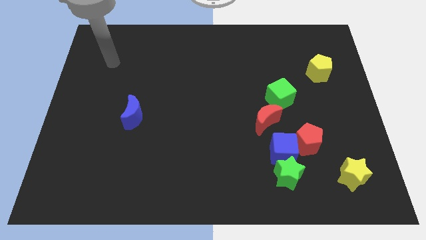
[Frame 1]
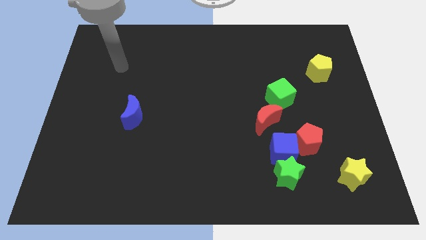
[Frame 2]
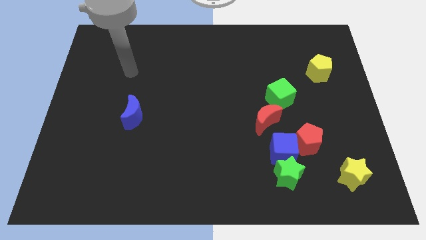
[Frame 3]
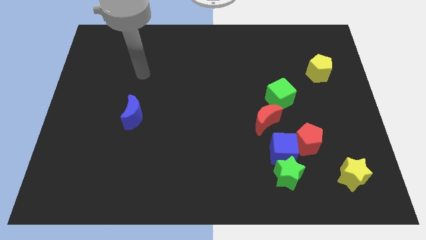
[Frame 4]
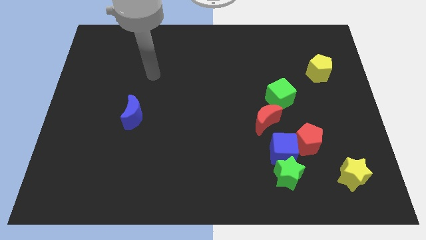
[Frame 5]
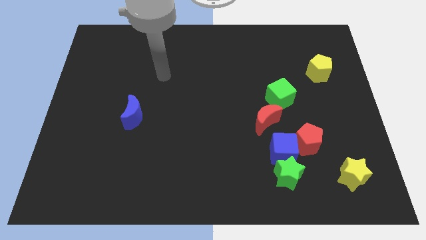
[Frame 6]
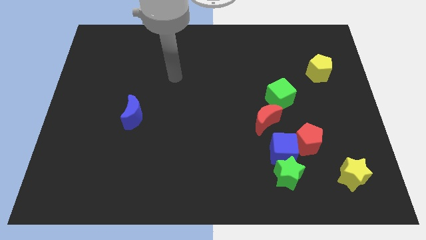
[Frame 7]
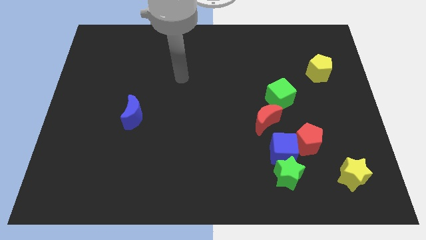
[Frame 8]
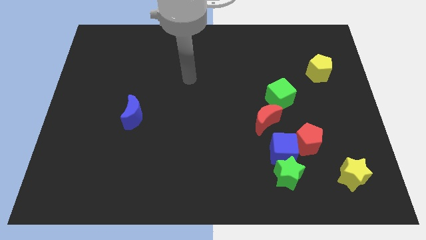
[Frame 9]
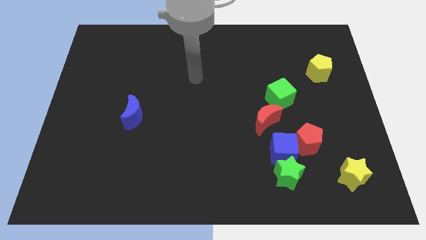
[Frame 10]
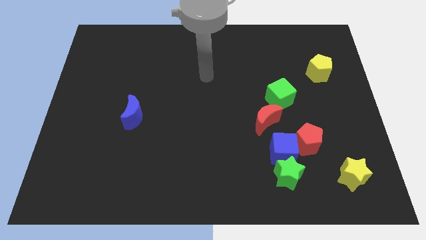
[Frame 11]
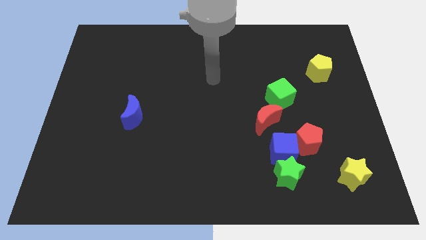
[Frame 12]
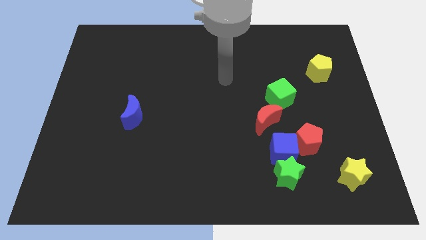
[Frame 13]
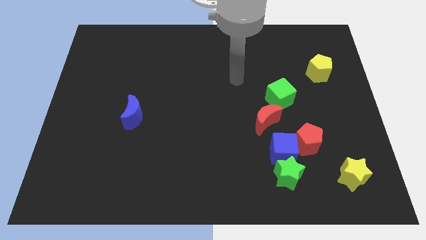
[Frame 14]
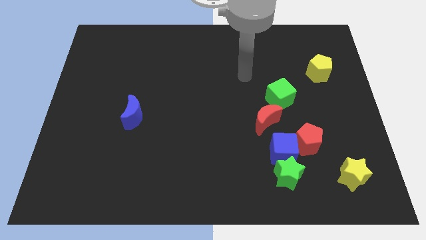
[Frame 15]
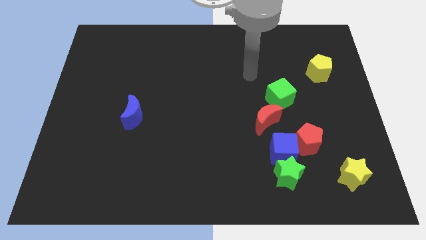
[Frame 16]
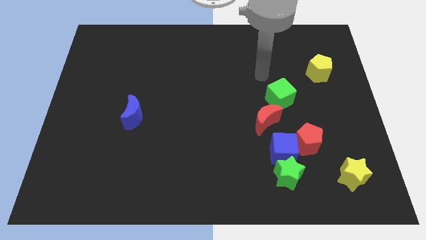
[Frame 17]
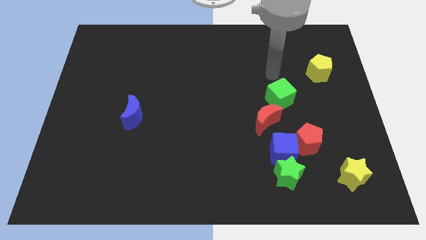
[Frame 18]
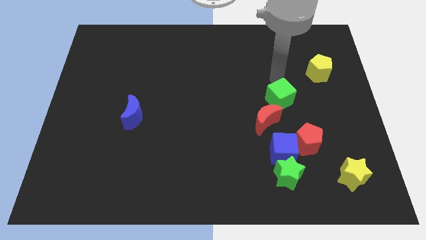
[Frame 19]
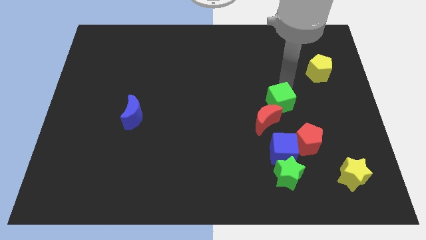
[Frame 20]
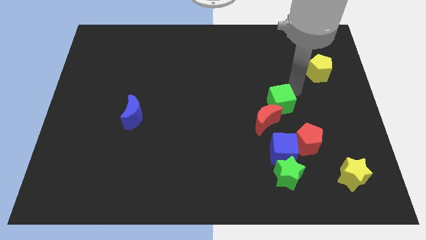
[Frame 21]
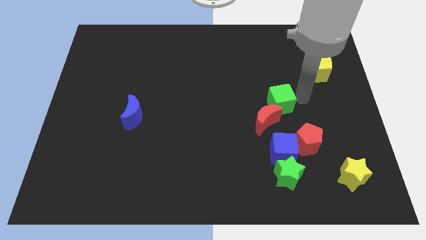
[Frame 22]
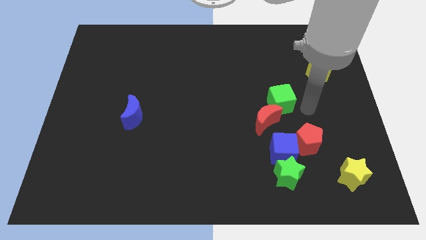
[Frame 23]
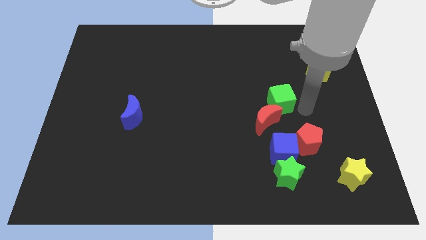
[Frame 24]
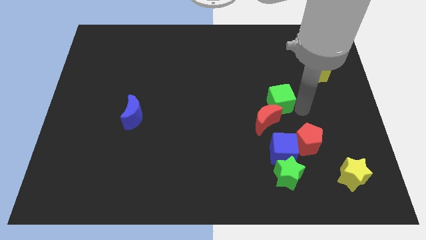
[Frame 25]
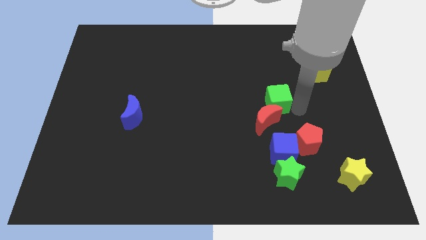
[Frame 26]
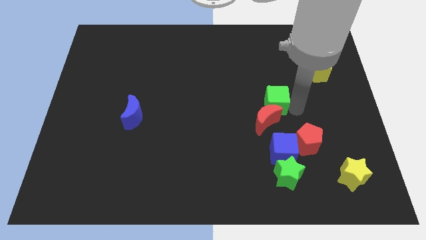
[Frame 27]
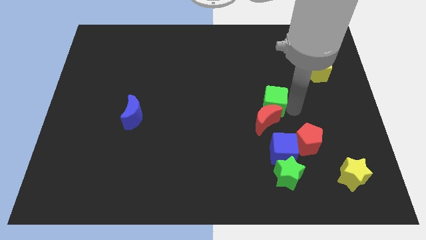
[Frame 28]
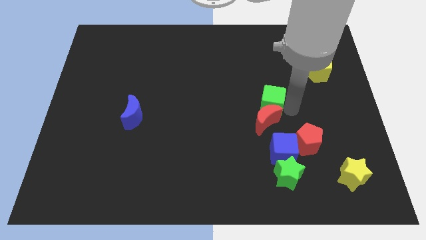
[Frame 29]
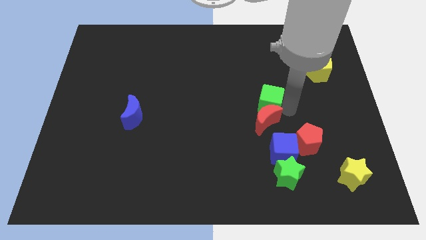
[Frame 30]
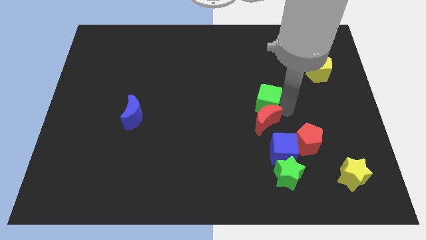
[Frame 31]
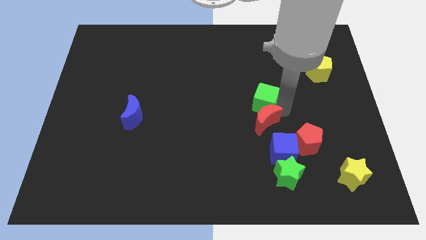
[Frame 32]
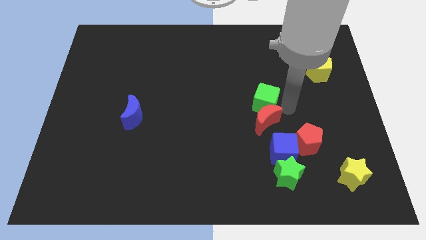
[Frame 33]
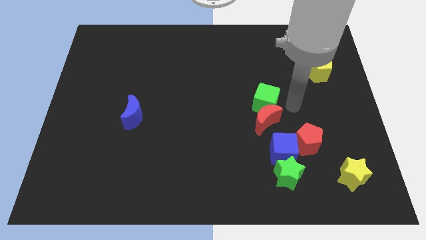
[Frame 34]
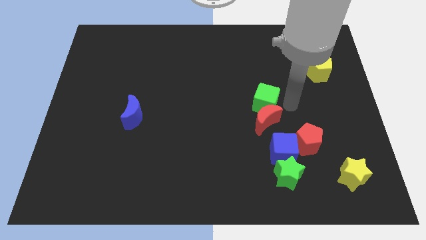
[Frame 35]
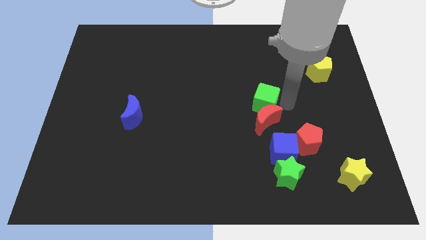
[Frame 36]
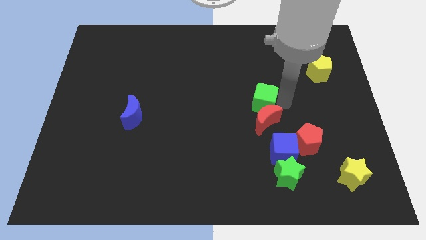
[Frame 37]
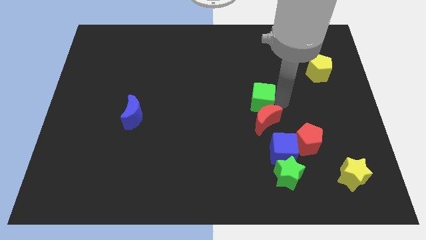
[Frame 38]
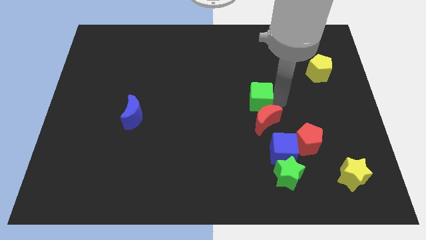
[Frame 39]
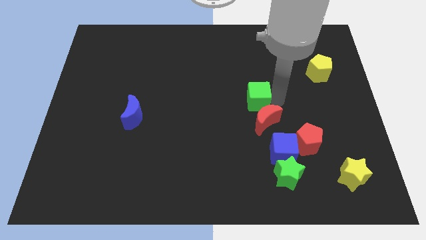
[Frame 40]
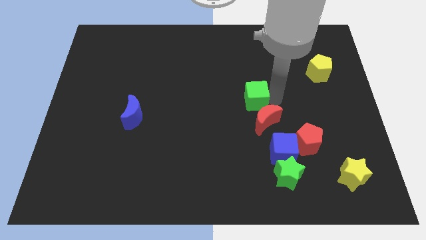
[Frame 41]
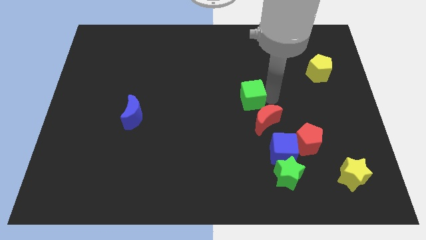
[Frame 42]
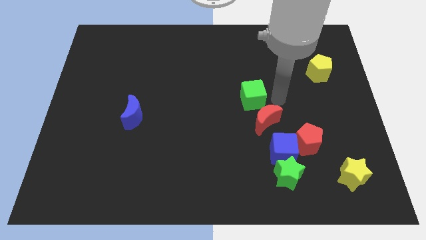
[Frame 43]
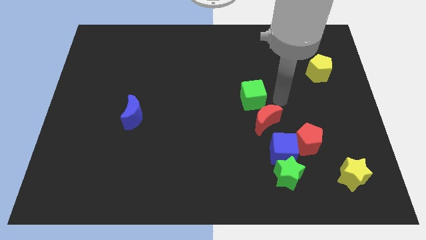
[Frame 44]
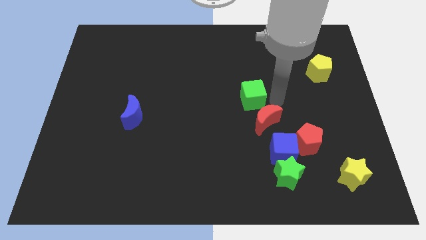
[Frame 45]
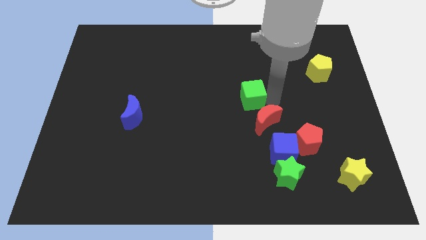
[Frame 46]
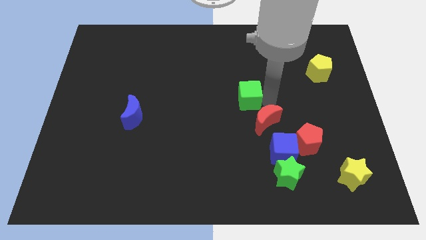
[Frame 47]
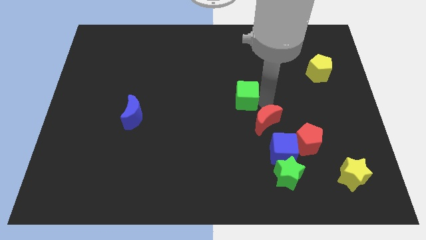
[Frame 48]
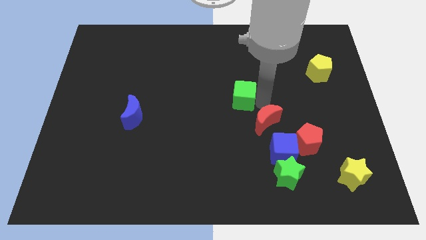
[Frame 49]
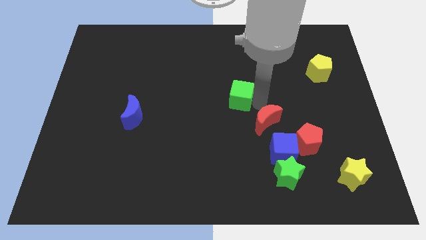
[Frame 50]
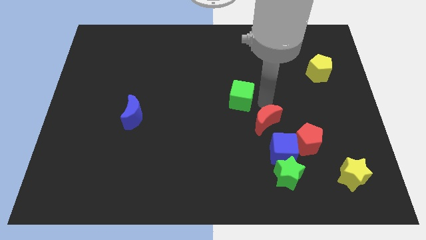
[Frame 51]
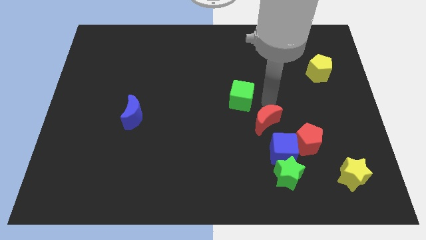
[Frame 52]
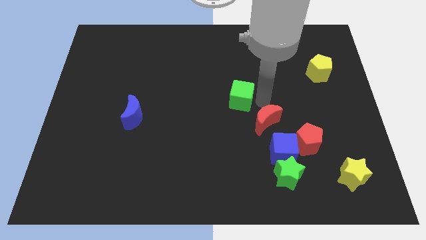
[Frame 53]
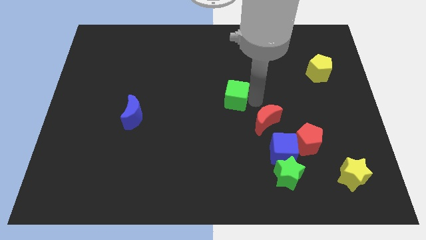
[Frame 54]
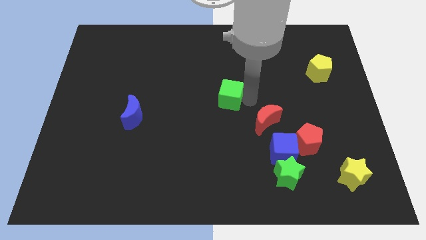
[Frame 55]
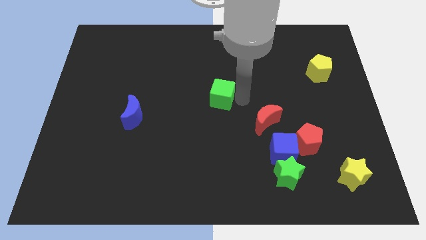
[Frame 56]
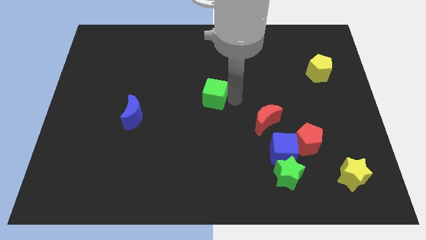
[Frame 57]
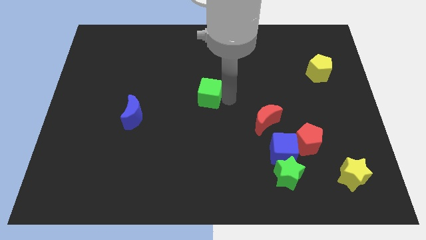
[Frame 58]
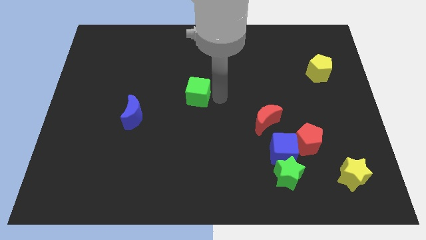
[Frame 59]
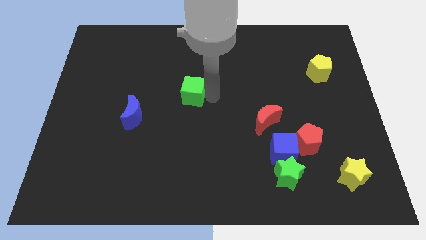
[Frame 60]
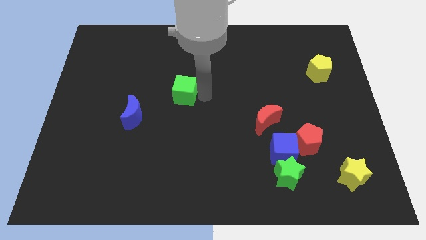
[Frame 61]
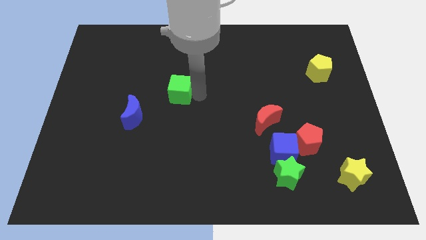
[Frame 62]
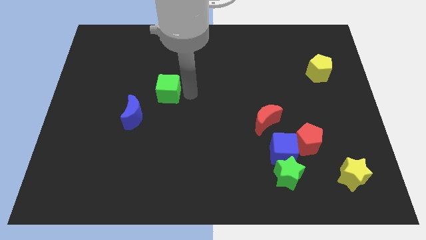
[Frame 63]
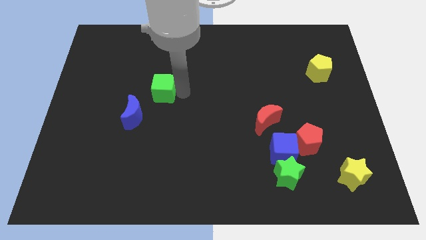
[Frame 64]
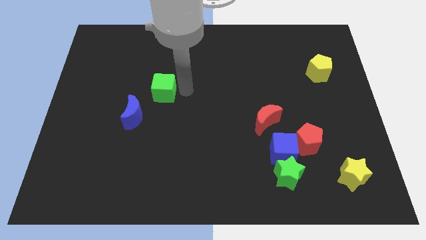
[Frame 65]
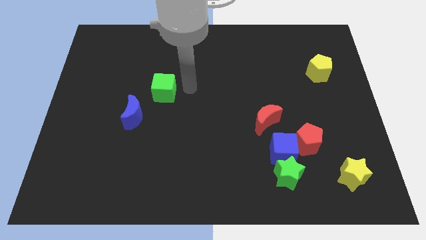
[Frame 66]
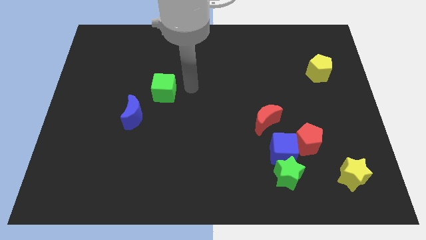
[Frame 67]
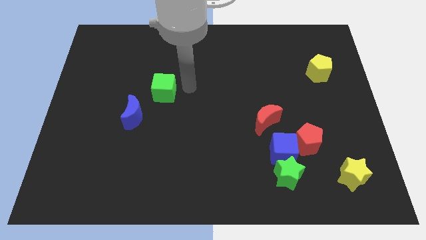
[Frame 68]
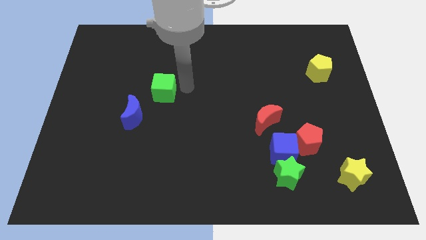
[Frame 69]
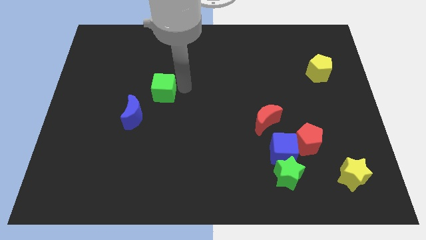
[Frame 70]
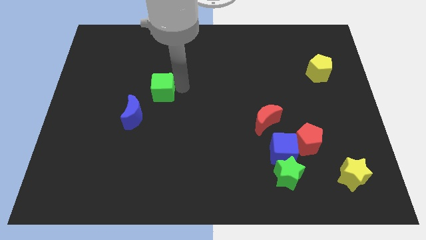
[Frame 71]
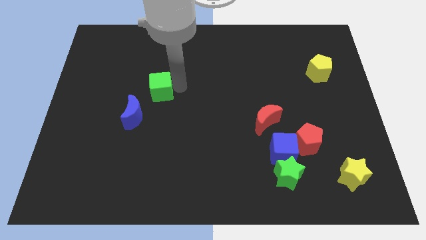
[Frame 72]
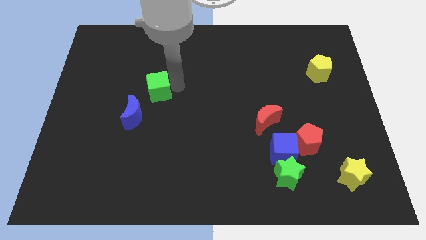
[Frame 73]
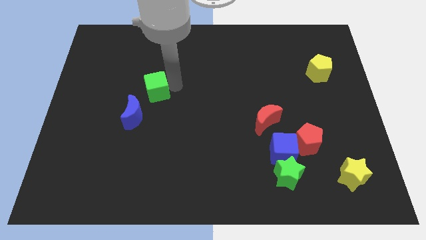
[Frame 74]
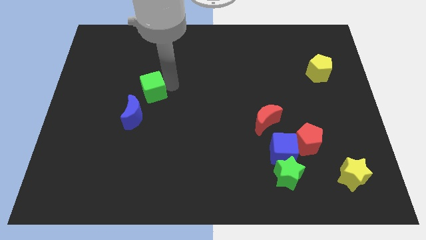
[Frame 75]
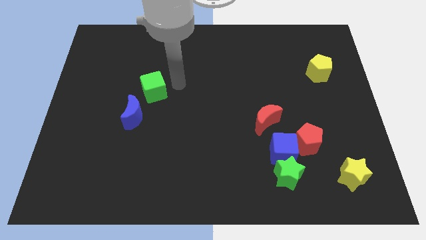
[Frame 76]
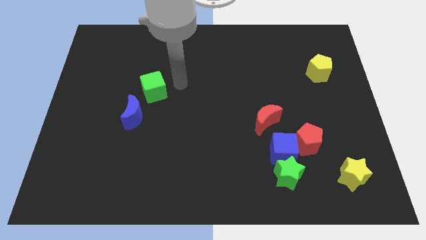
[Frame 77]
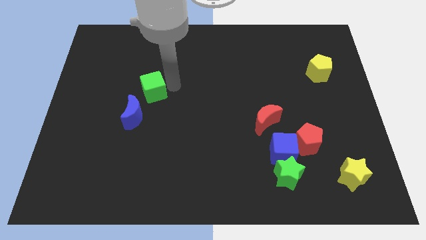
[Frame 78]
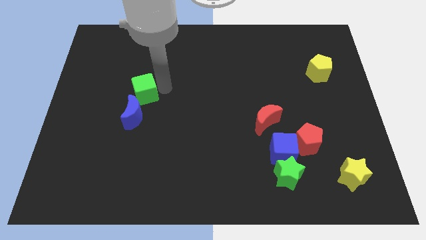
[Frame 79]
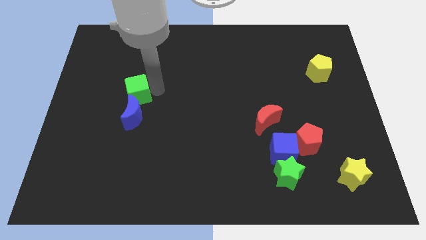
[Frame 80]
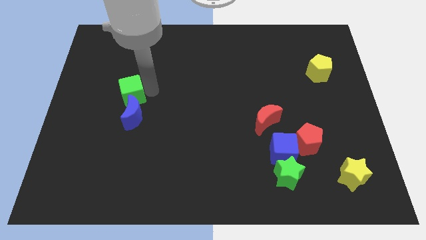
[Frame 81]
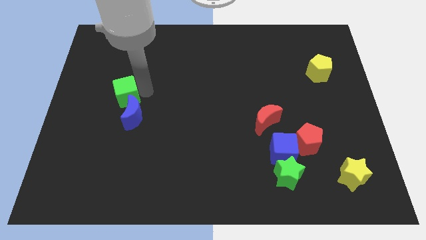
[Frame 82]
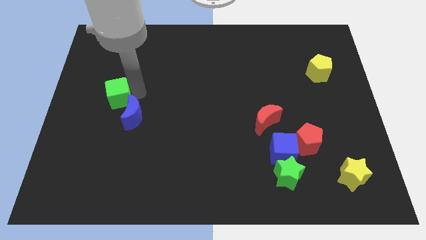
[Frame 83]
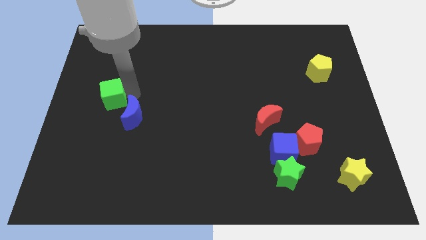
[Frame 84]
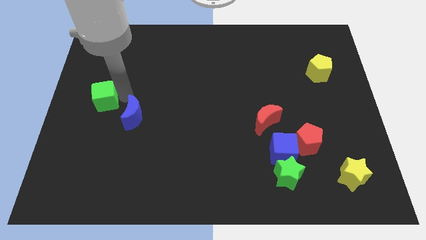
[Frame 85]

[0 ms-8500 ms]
slide the green cube to the center left
